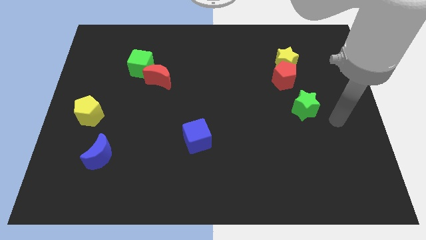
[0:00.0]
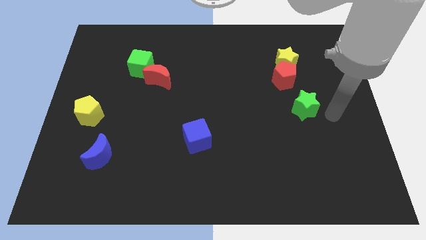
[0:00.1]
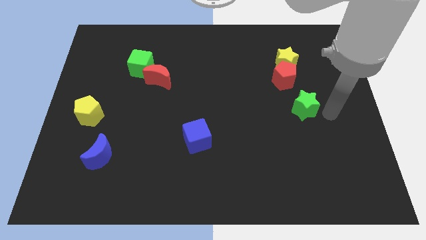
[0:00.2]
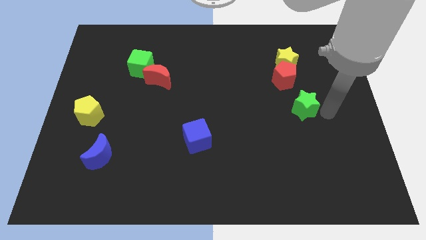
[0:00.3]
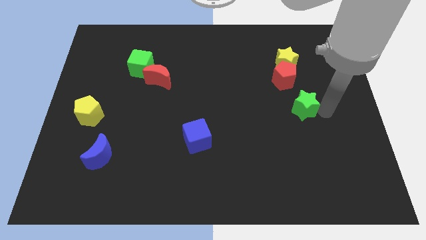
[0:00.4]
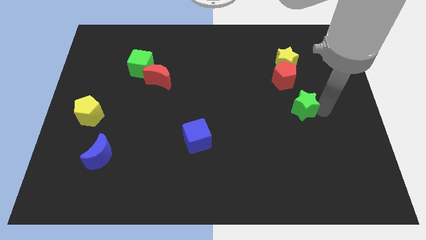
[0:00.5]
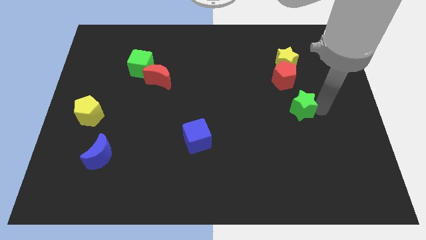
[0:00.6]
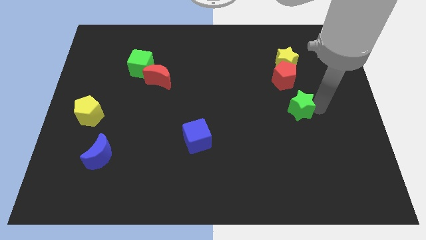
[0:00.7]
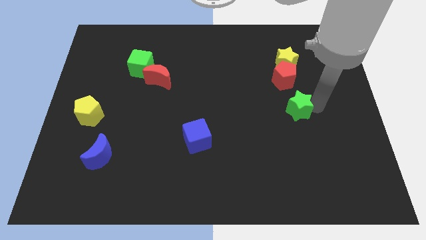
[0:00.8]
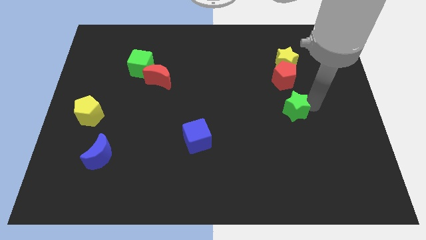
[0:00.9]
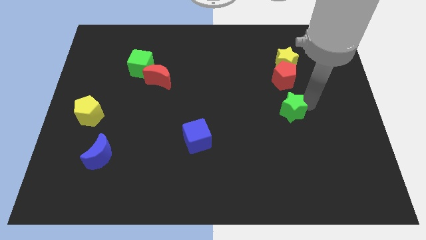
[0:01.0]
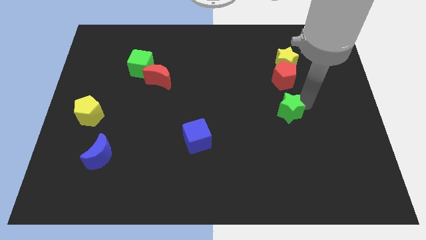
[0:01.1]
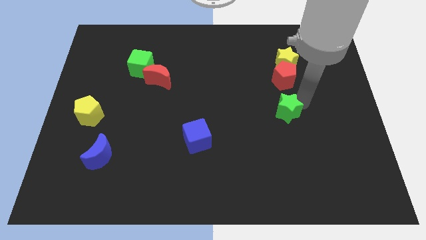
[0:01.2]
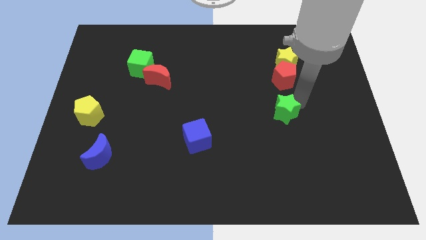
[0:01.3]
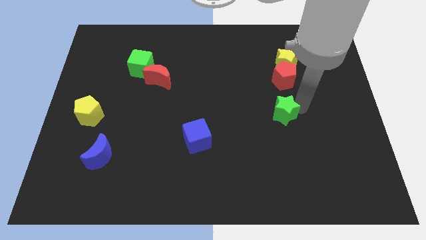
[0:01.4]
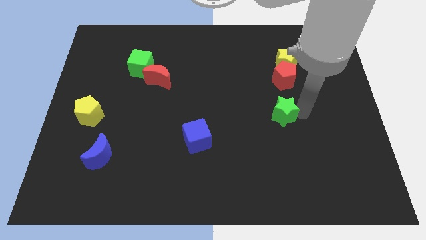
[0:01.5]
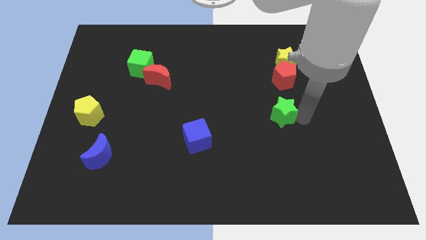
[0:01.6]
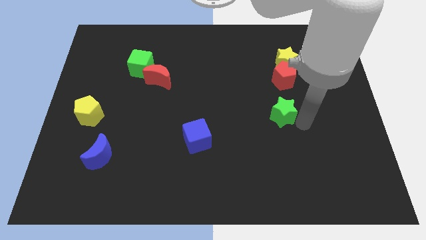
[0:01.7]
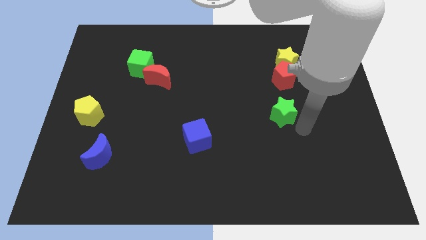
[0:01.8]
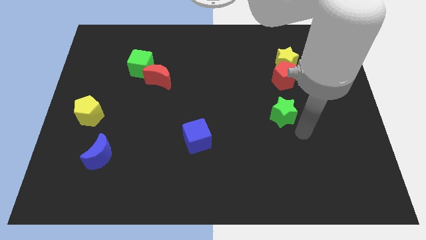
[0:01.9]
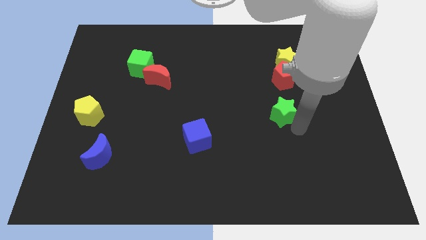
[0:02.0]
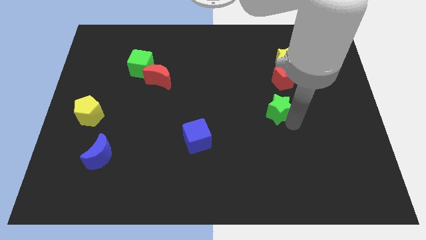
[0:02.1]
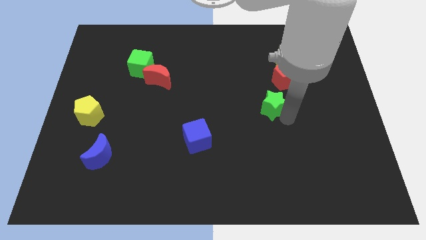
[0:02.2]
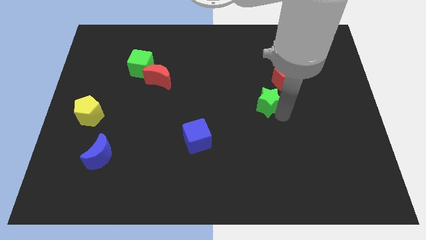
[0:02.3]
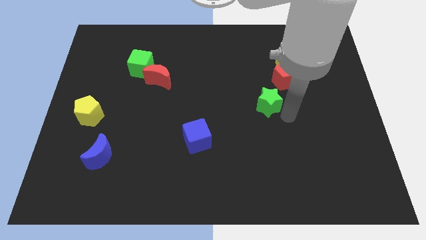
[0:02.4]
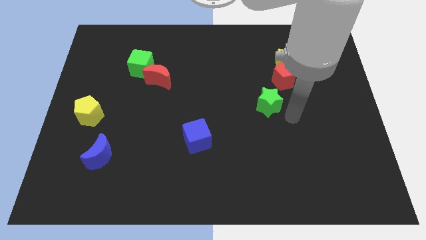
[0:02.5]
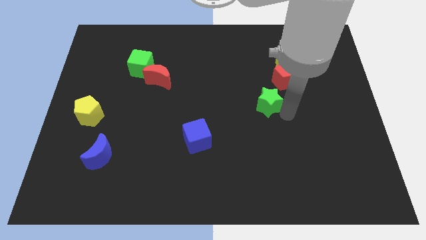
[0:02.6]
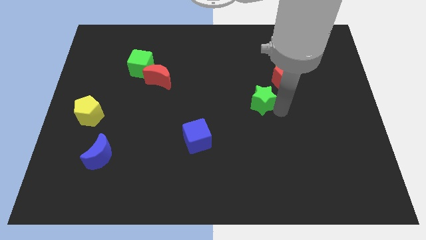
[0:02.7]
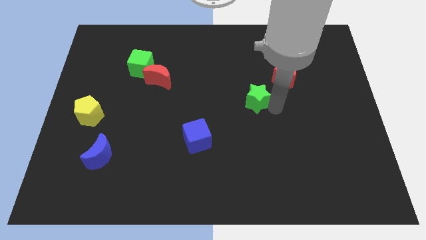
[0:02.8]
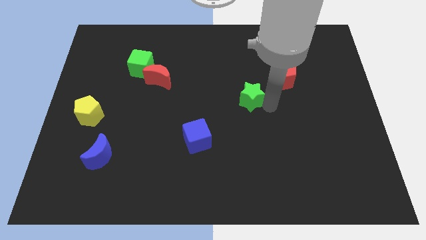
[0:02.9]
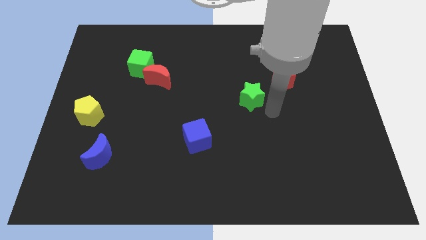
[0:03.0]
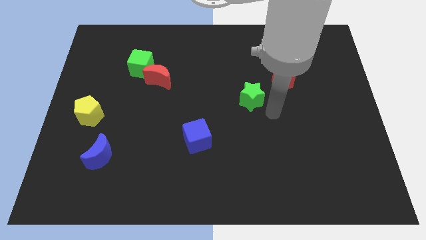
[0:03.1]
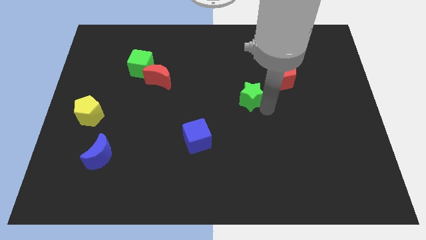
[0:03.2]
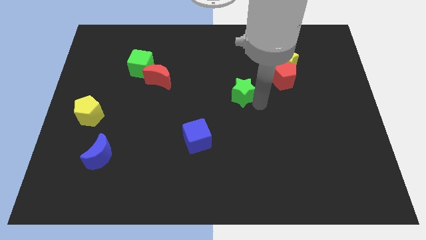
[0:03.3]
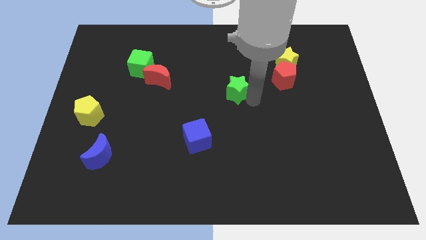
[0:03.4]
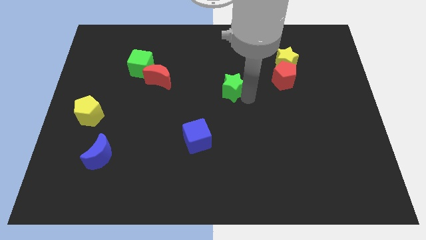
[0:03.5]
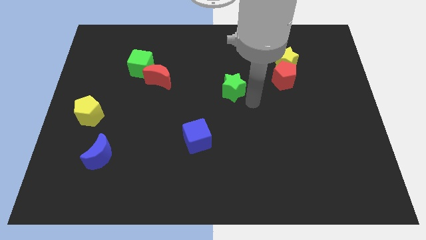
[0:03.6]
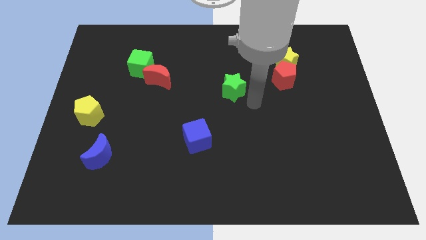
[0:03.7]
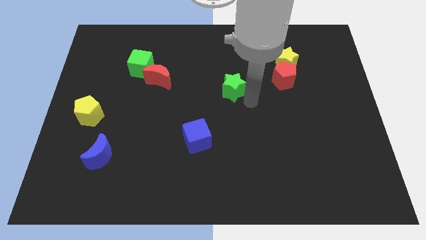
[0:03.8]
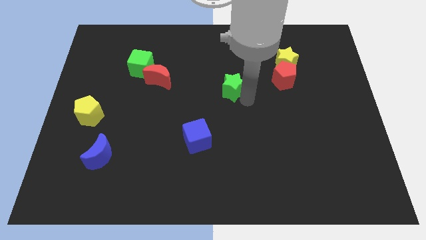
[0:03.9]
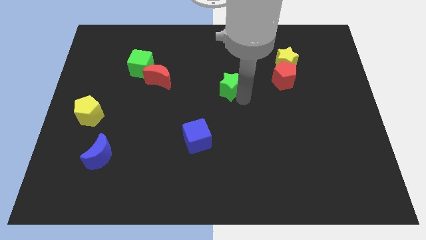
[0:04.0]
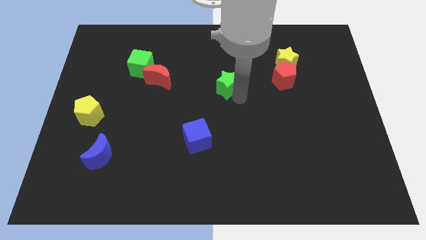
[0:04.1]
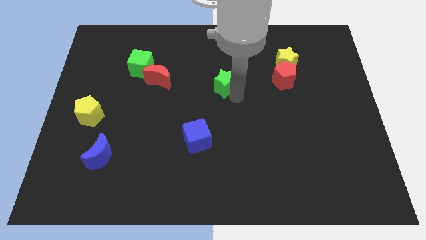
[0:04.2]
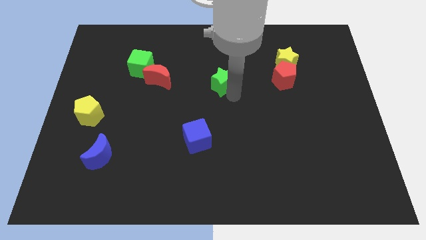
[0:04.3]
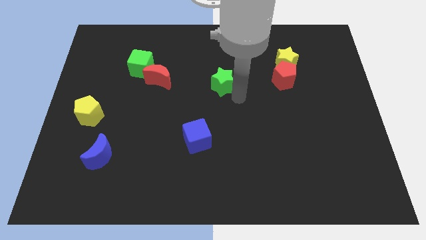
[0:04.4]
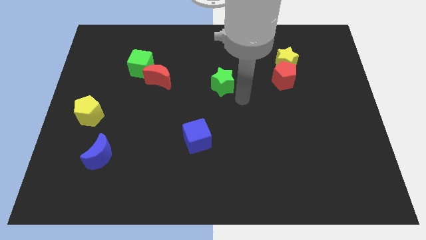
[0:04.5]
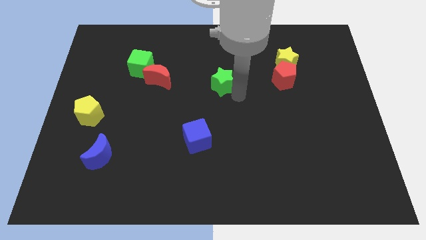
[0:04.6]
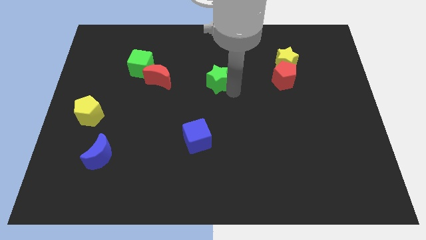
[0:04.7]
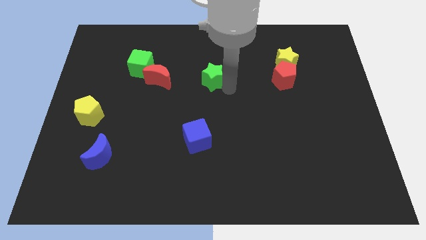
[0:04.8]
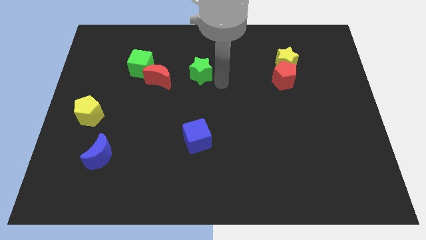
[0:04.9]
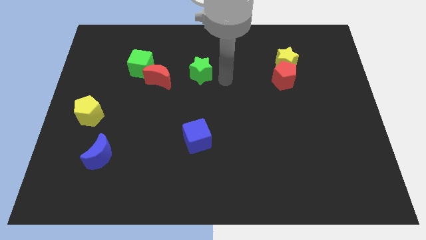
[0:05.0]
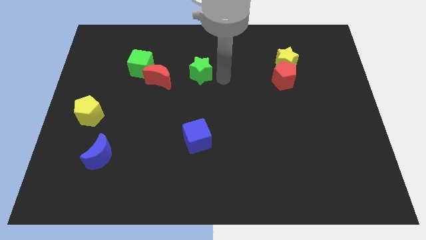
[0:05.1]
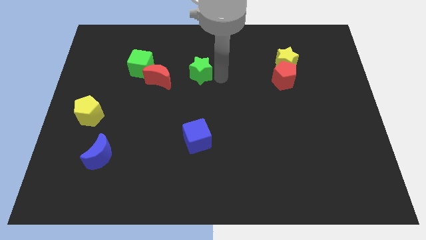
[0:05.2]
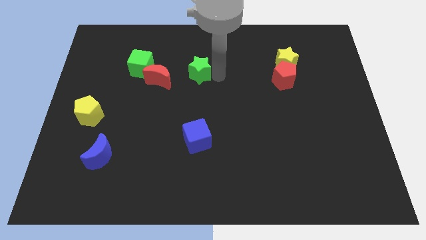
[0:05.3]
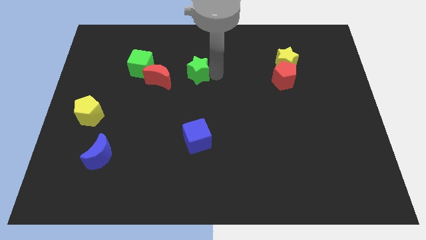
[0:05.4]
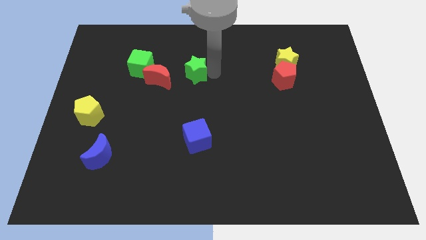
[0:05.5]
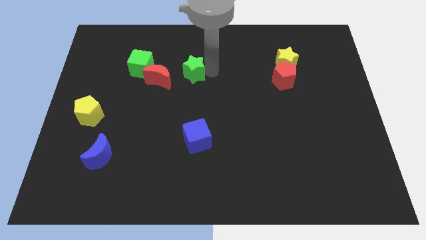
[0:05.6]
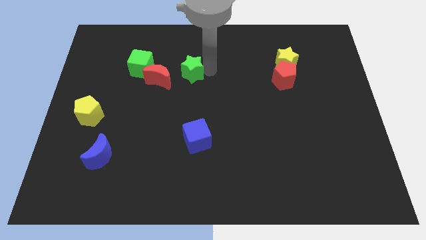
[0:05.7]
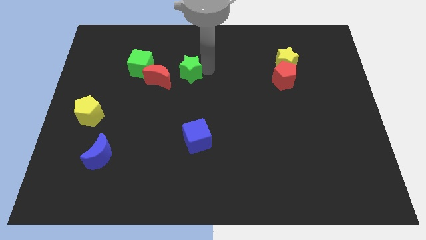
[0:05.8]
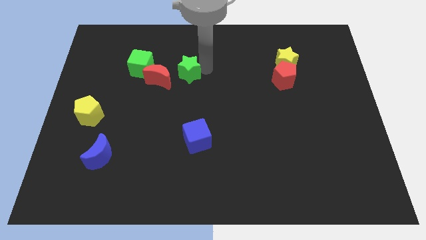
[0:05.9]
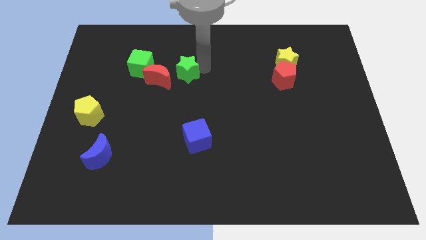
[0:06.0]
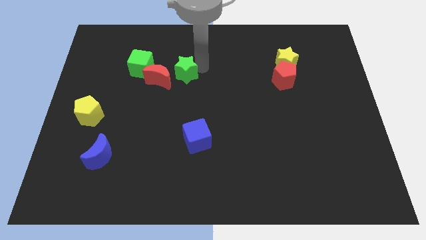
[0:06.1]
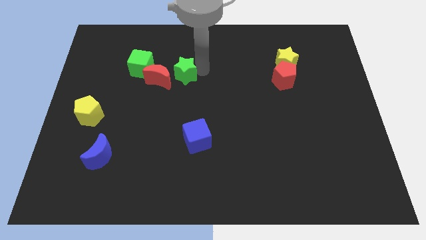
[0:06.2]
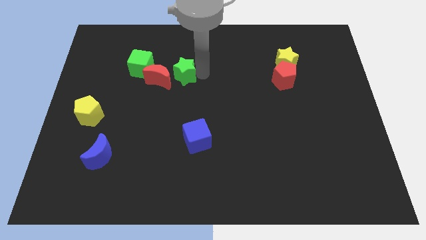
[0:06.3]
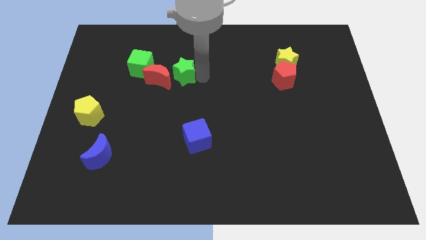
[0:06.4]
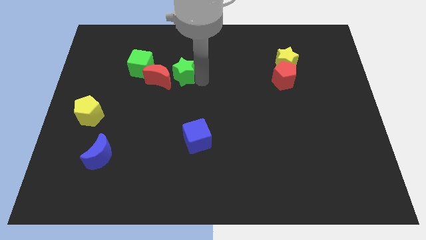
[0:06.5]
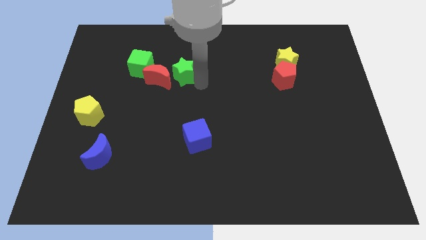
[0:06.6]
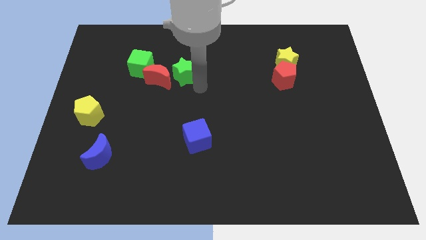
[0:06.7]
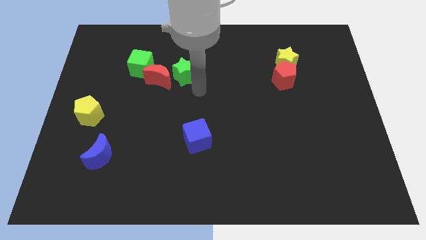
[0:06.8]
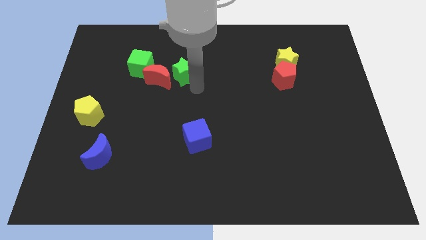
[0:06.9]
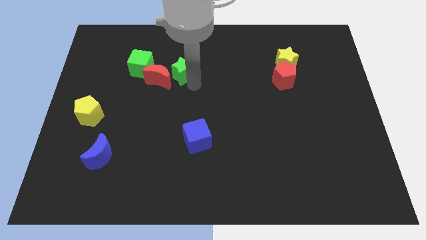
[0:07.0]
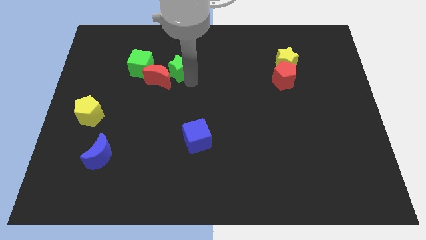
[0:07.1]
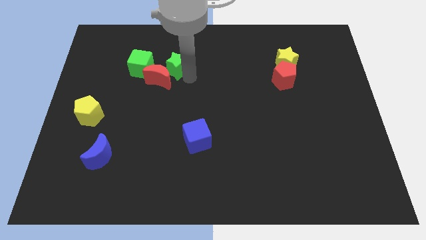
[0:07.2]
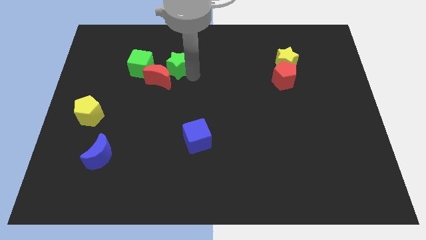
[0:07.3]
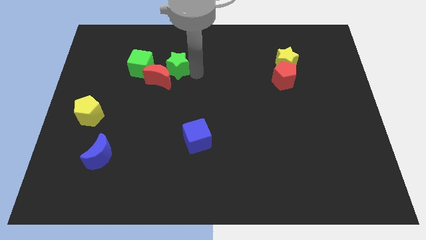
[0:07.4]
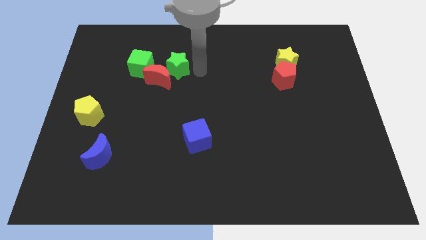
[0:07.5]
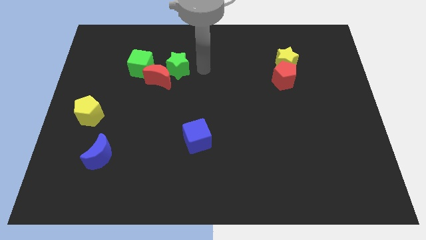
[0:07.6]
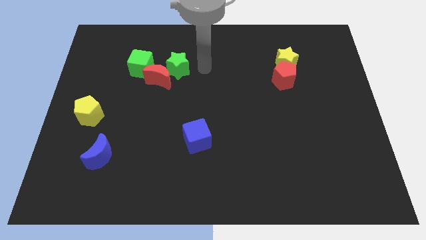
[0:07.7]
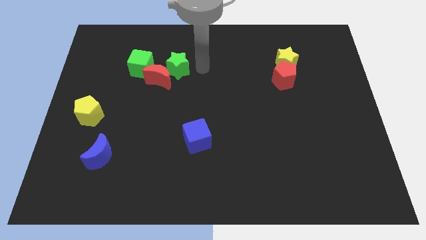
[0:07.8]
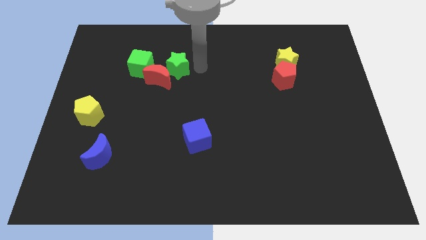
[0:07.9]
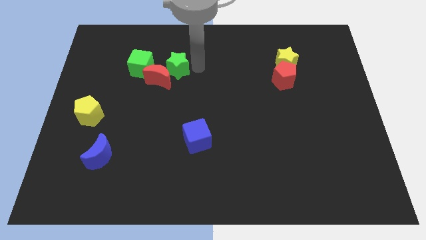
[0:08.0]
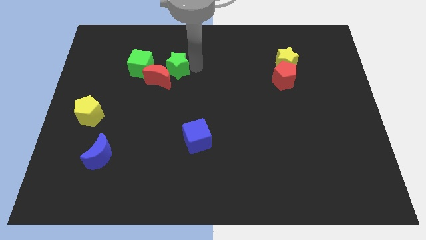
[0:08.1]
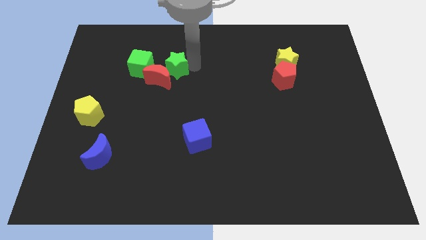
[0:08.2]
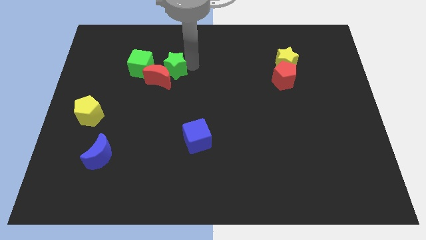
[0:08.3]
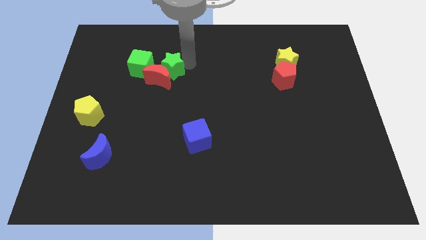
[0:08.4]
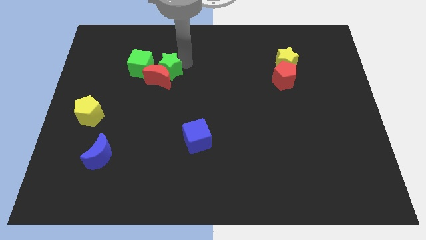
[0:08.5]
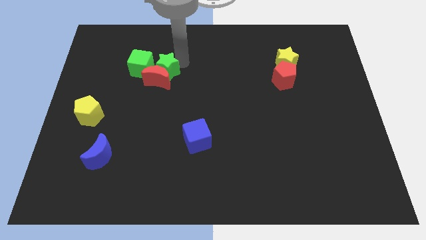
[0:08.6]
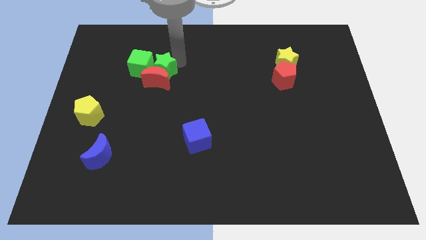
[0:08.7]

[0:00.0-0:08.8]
slide the green star towards the green cube
